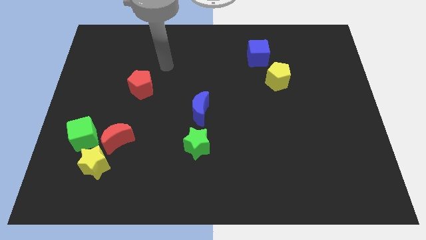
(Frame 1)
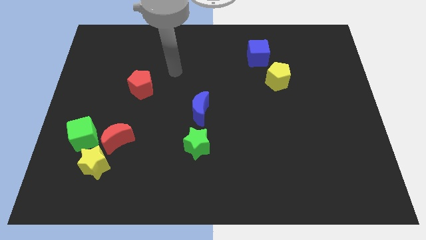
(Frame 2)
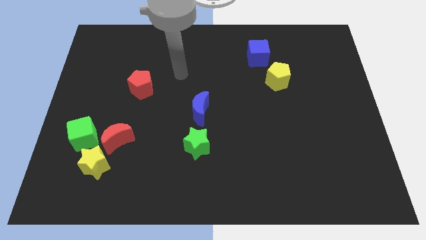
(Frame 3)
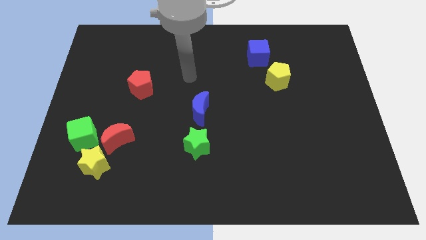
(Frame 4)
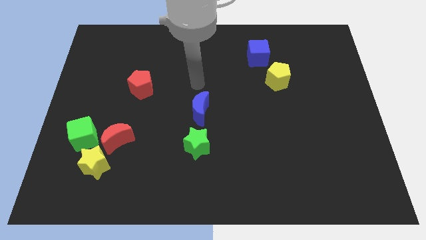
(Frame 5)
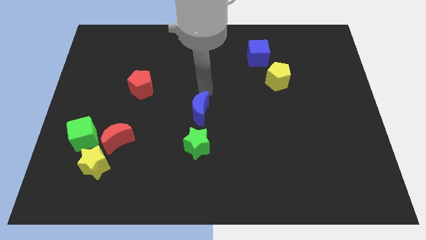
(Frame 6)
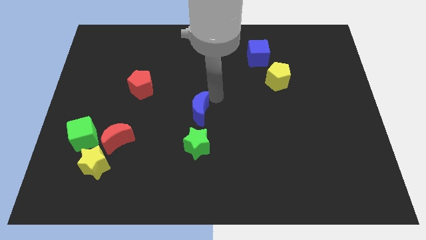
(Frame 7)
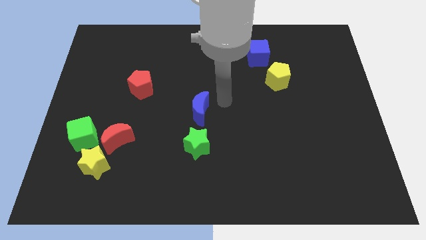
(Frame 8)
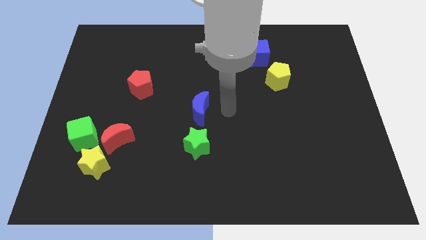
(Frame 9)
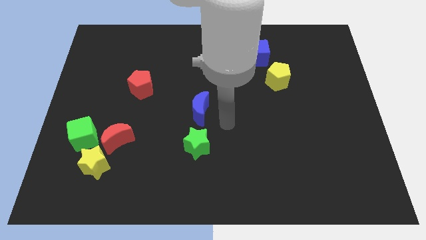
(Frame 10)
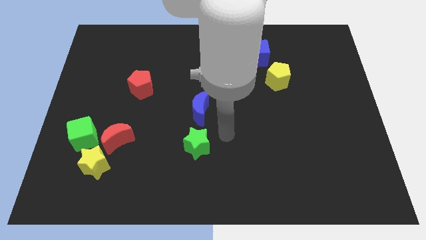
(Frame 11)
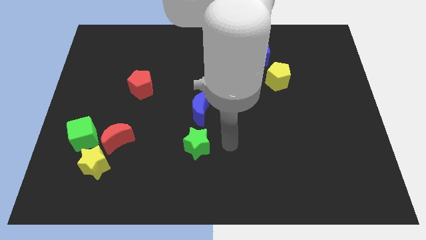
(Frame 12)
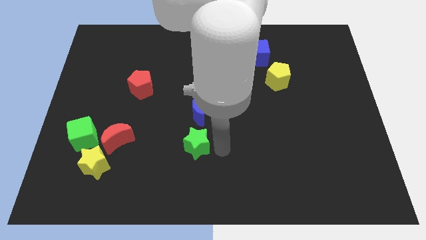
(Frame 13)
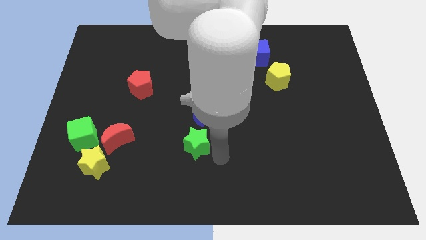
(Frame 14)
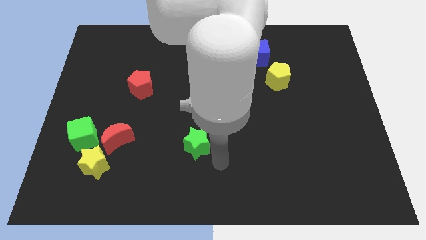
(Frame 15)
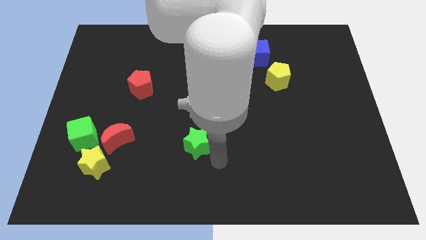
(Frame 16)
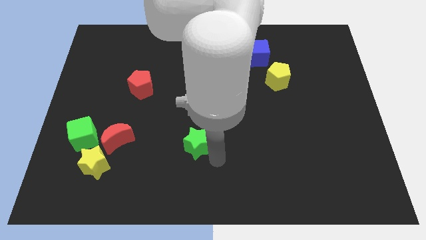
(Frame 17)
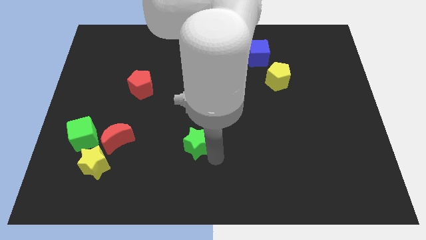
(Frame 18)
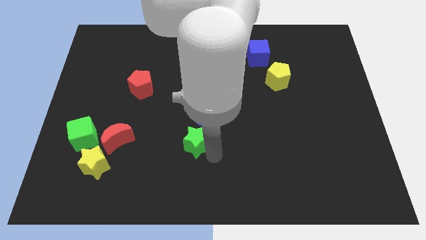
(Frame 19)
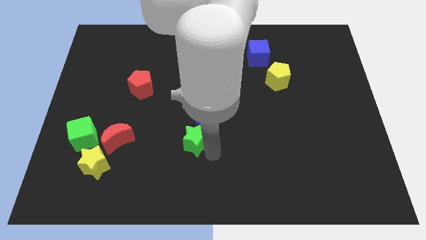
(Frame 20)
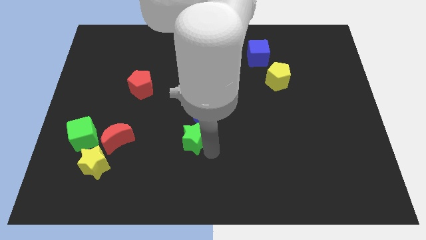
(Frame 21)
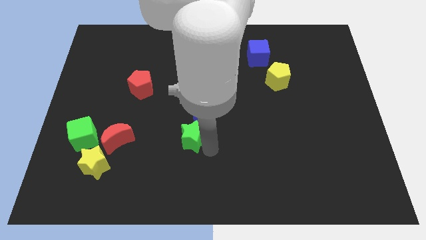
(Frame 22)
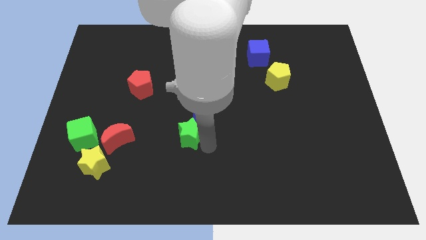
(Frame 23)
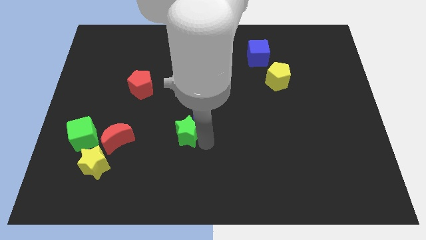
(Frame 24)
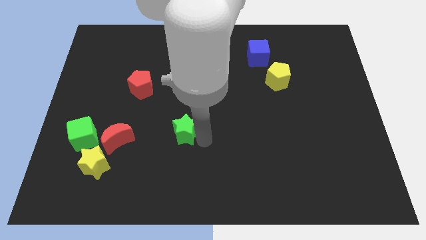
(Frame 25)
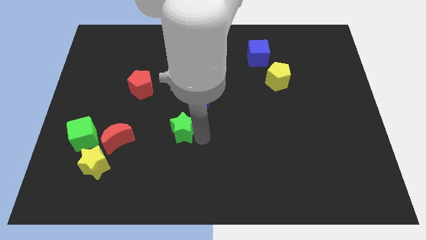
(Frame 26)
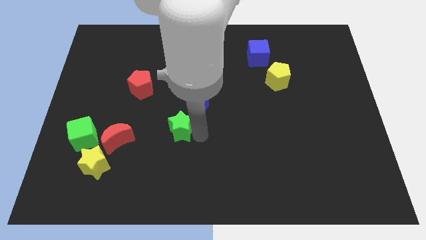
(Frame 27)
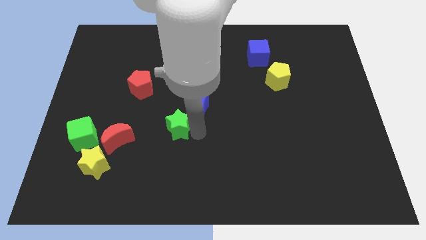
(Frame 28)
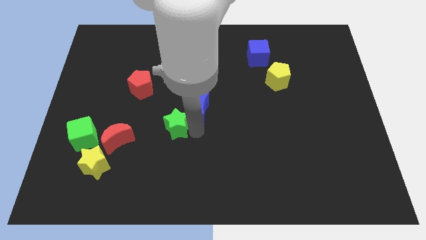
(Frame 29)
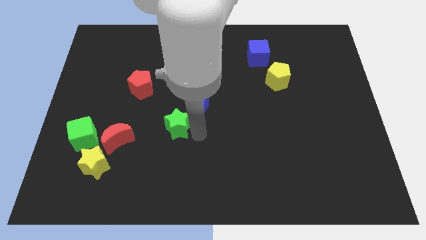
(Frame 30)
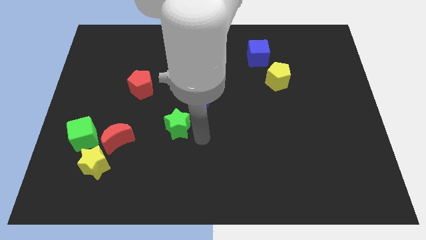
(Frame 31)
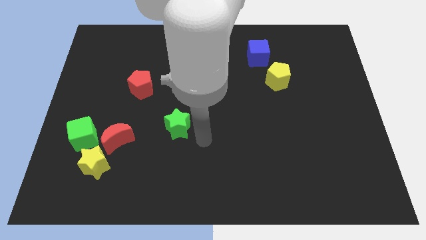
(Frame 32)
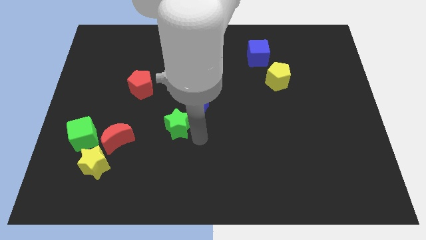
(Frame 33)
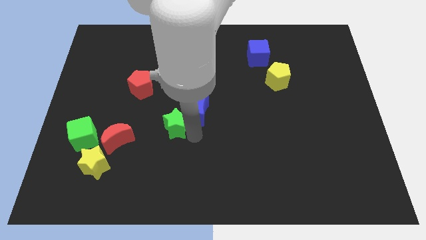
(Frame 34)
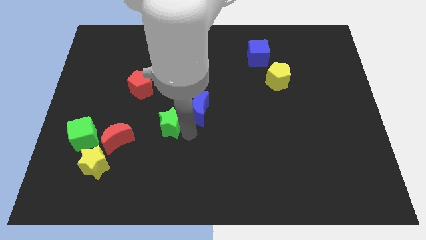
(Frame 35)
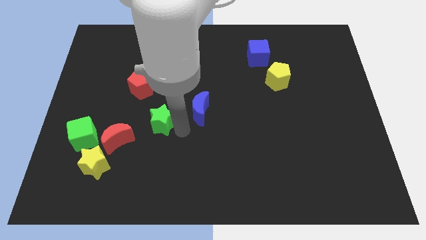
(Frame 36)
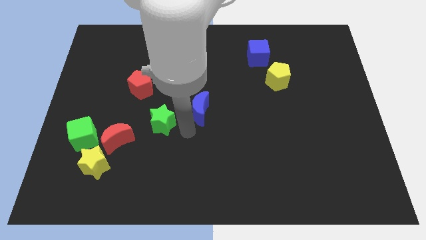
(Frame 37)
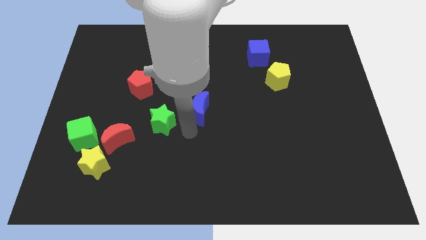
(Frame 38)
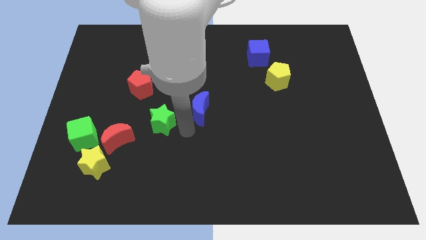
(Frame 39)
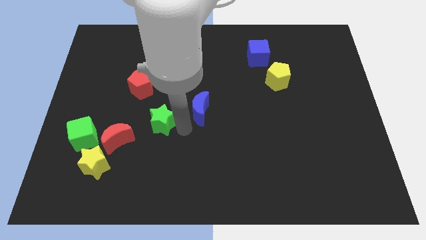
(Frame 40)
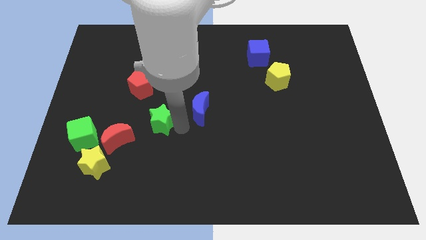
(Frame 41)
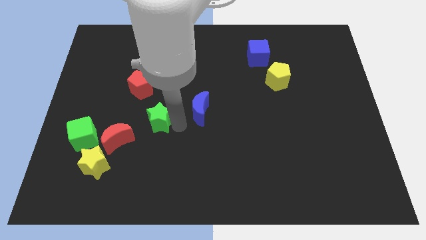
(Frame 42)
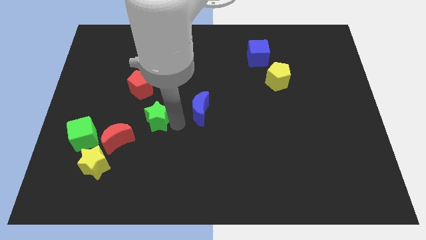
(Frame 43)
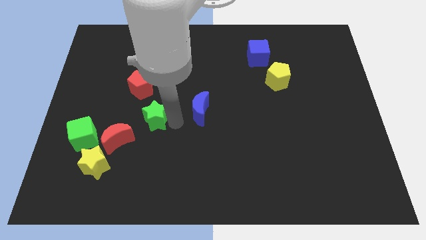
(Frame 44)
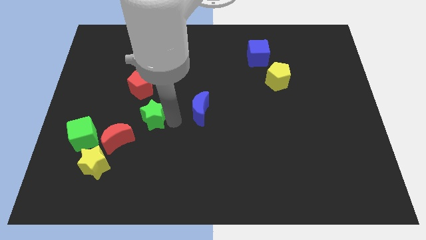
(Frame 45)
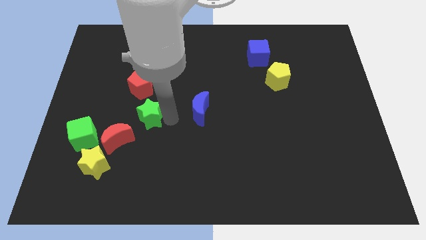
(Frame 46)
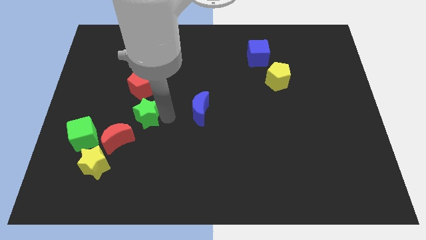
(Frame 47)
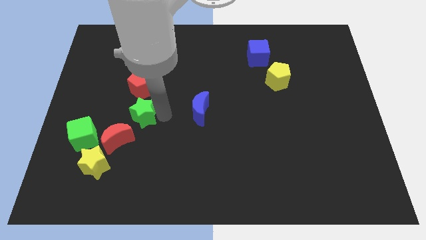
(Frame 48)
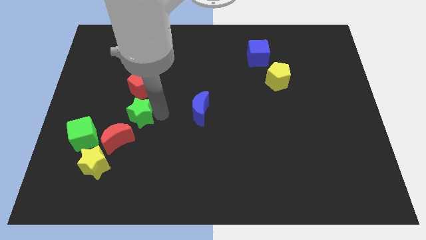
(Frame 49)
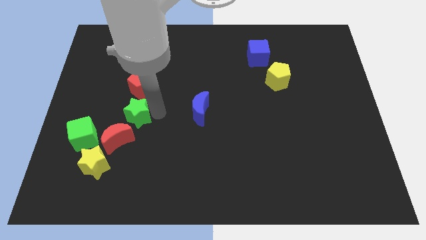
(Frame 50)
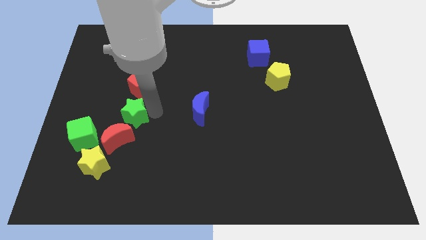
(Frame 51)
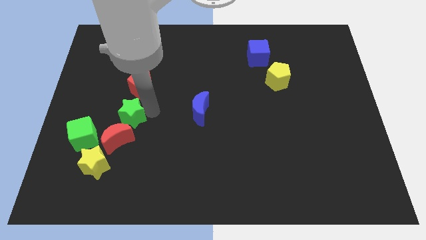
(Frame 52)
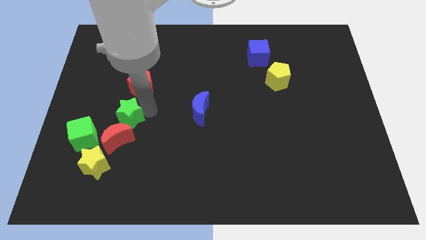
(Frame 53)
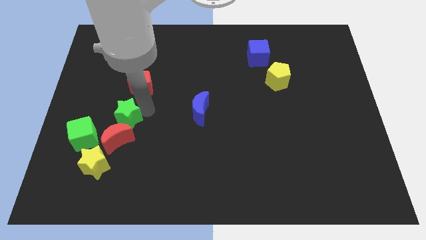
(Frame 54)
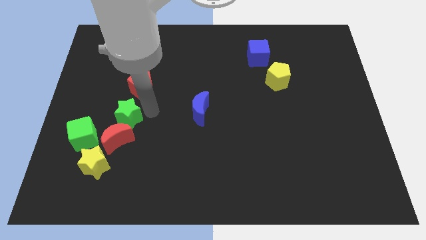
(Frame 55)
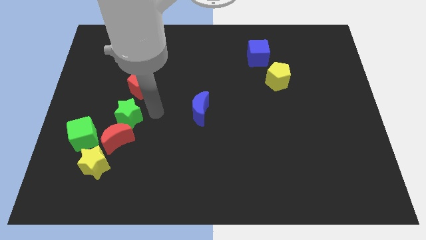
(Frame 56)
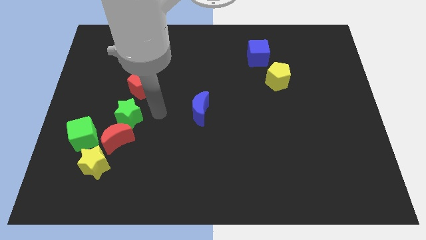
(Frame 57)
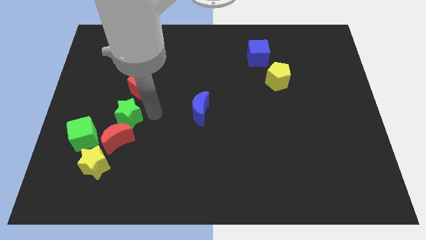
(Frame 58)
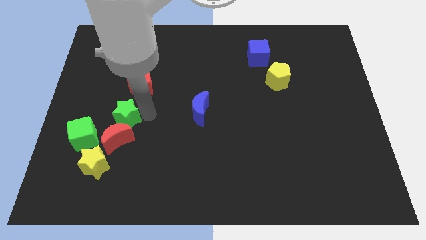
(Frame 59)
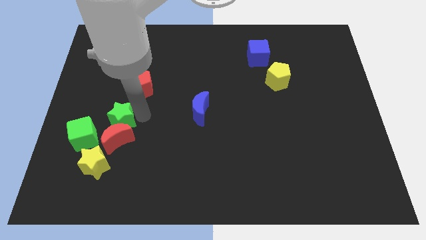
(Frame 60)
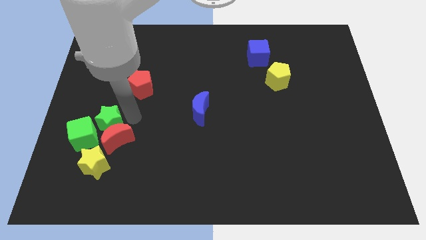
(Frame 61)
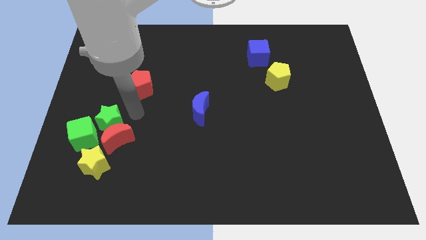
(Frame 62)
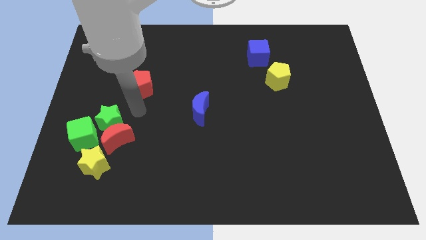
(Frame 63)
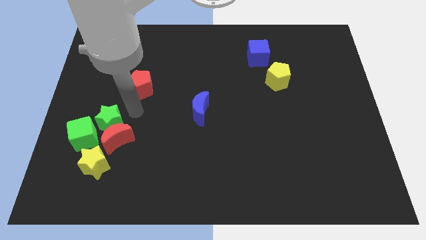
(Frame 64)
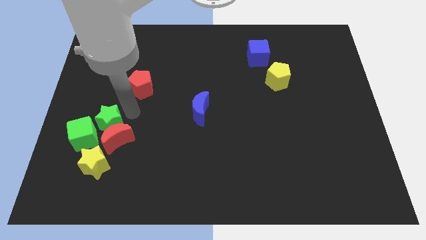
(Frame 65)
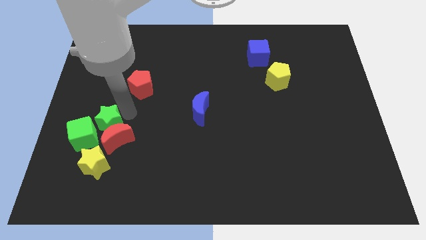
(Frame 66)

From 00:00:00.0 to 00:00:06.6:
put the green star towards the green cube

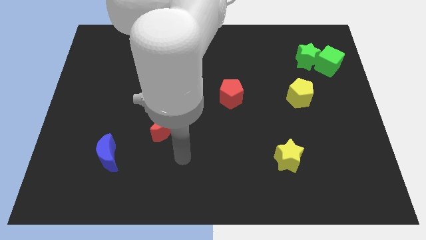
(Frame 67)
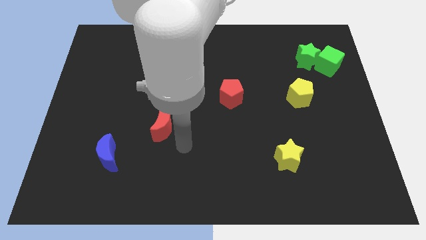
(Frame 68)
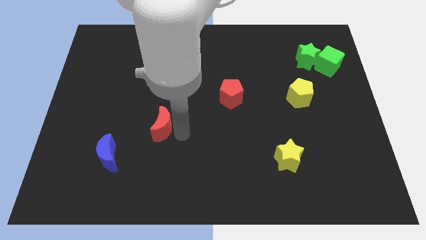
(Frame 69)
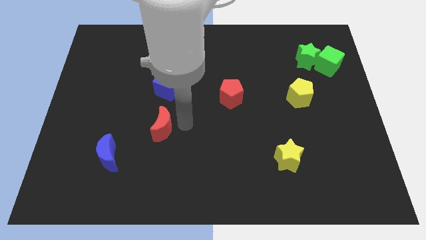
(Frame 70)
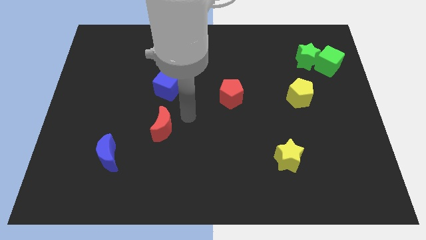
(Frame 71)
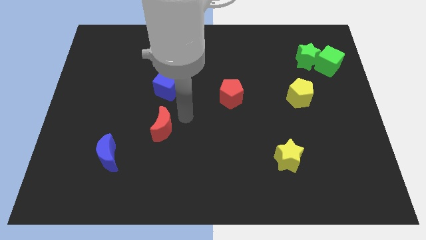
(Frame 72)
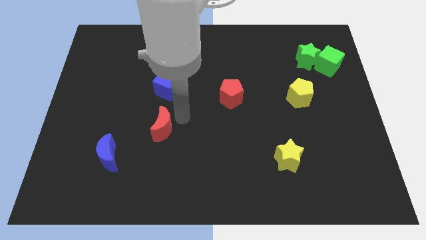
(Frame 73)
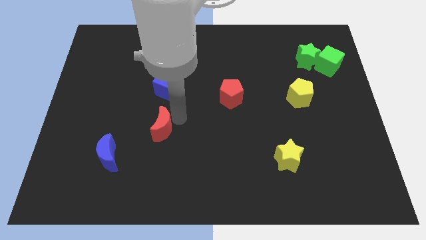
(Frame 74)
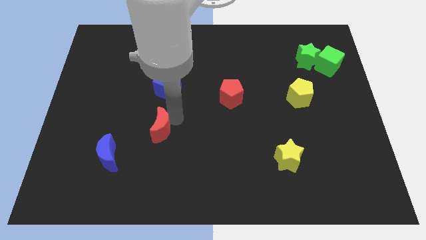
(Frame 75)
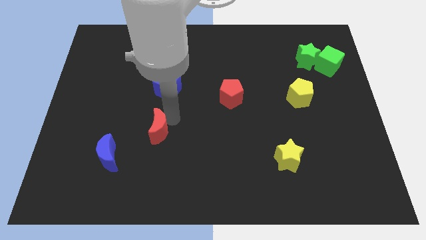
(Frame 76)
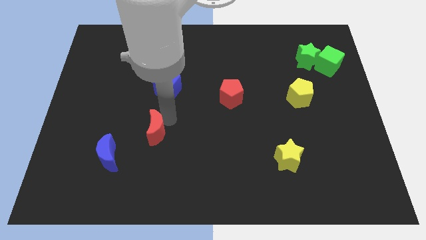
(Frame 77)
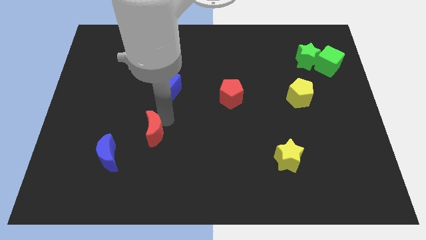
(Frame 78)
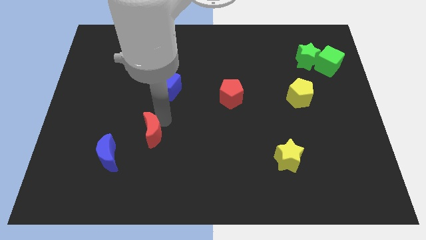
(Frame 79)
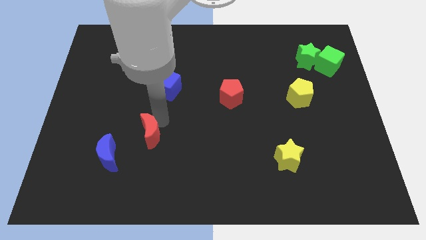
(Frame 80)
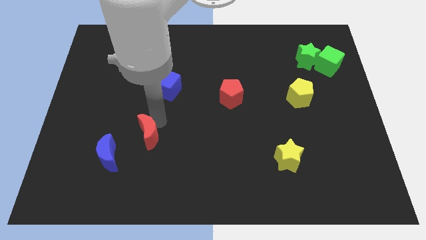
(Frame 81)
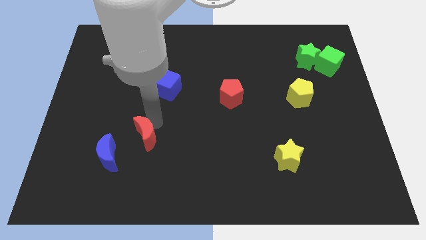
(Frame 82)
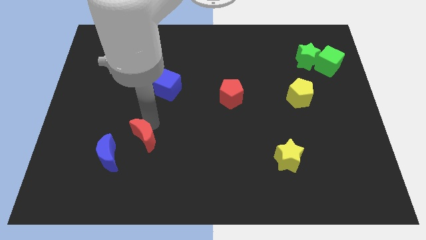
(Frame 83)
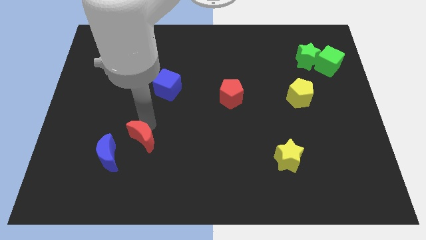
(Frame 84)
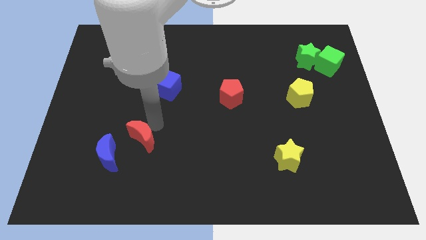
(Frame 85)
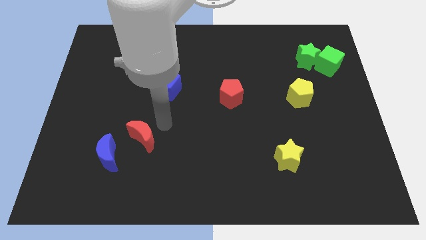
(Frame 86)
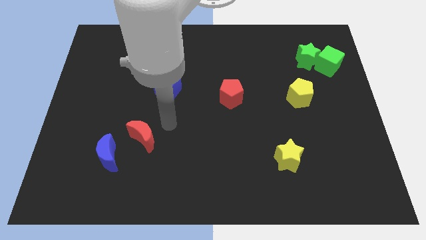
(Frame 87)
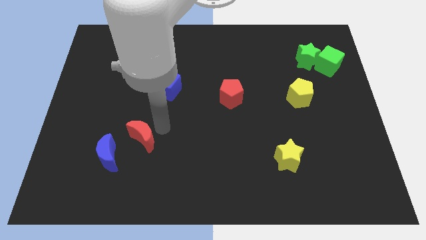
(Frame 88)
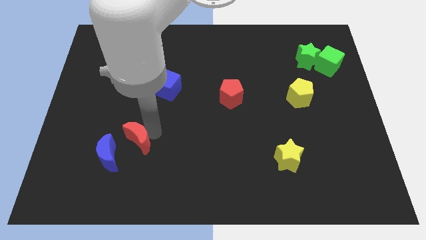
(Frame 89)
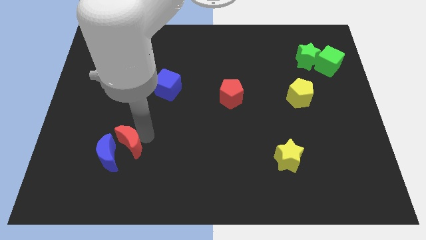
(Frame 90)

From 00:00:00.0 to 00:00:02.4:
put the red moon to the blue moon
